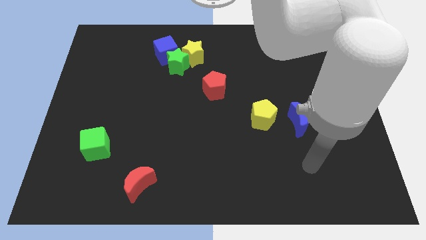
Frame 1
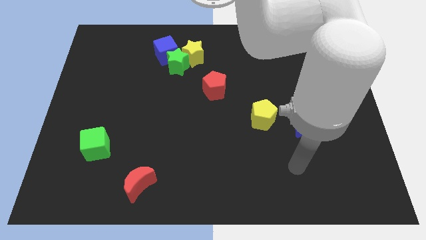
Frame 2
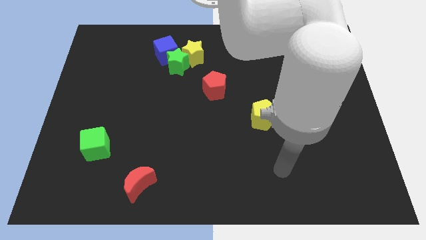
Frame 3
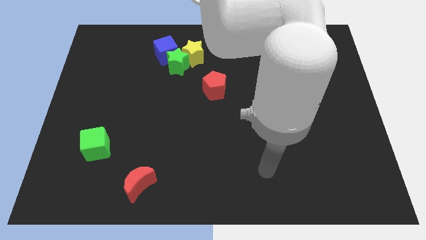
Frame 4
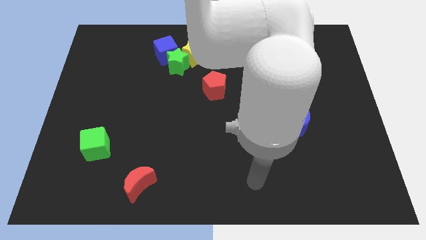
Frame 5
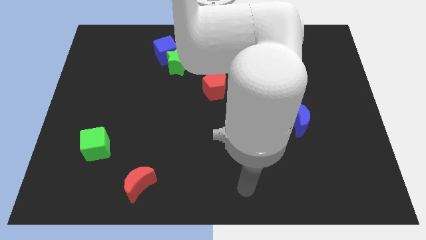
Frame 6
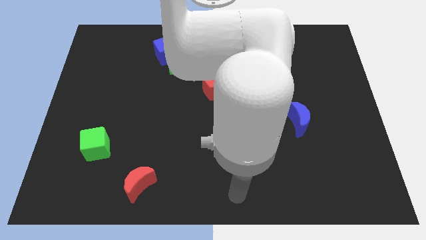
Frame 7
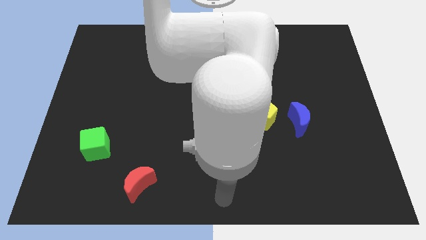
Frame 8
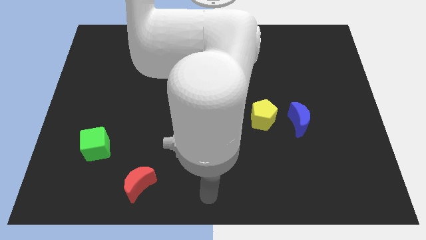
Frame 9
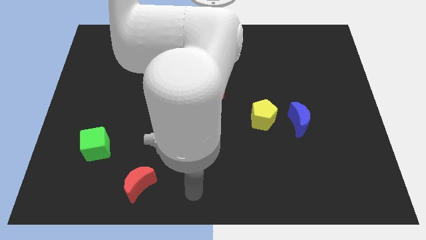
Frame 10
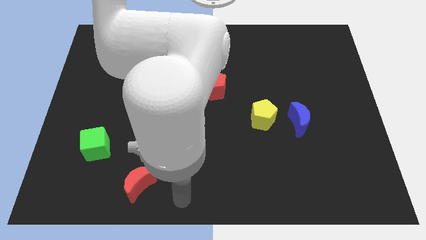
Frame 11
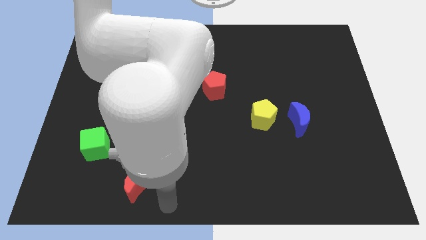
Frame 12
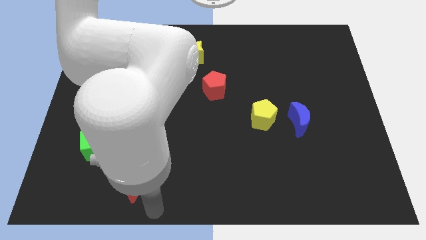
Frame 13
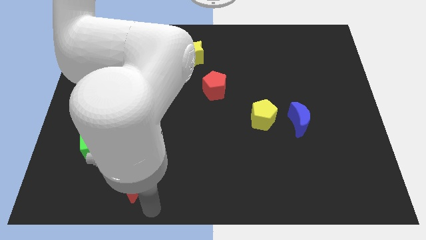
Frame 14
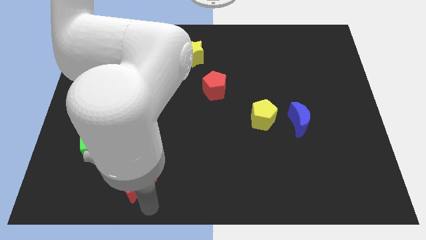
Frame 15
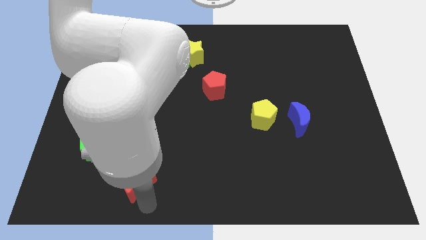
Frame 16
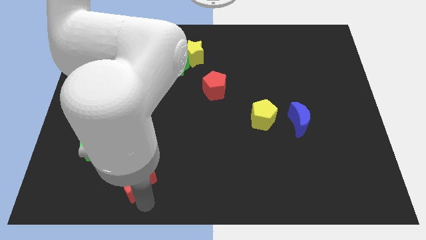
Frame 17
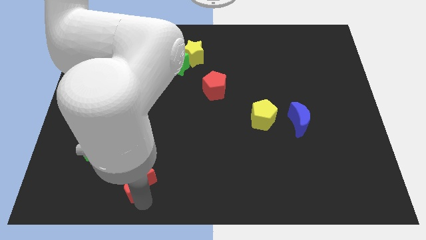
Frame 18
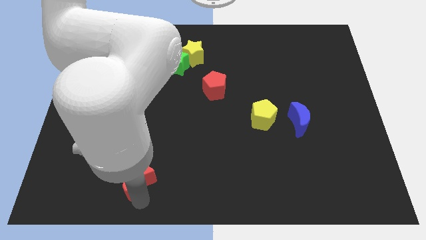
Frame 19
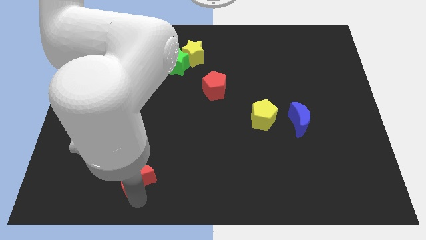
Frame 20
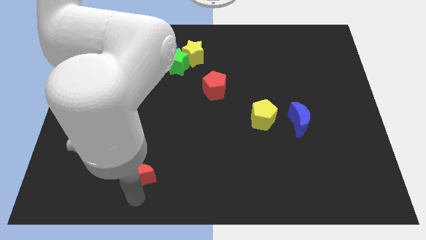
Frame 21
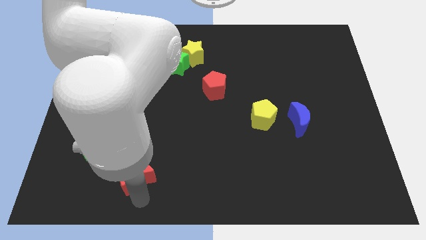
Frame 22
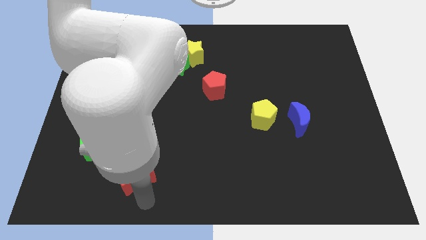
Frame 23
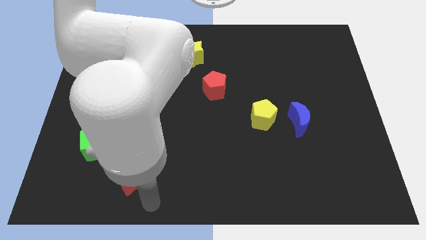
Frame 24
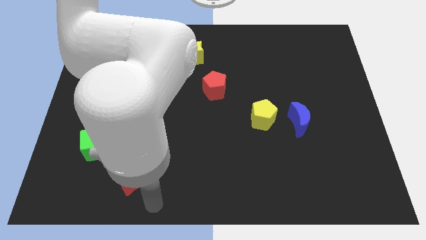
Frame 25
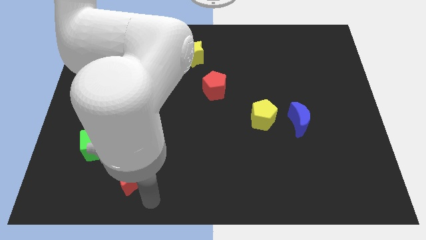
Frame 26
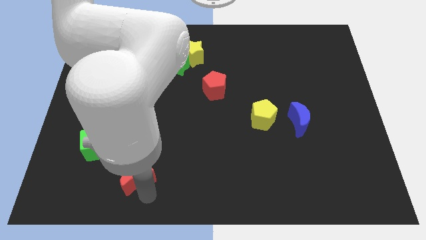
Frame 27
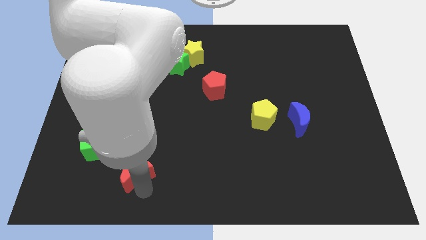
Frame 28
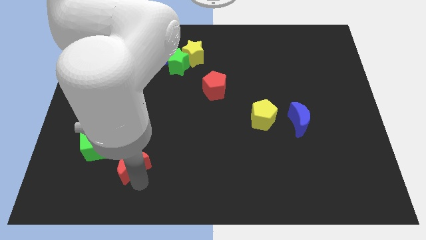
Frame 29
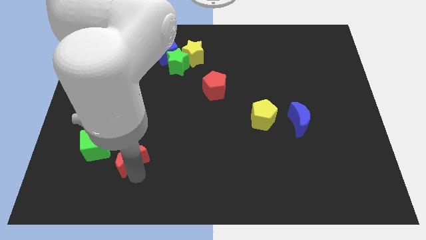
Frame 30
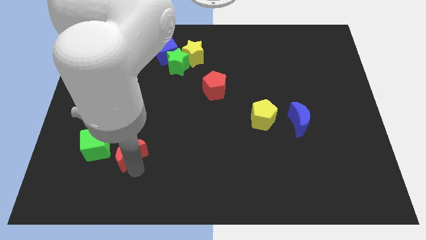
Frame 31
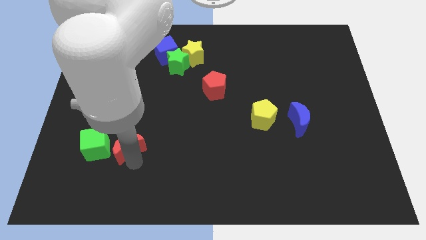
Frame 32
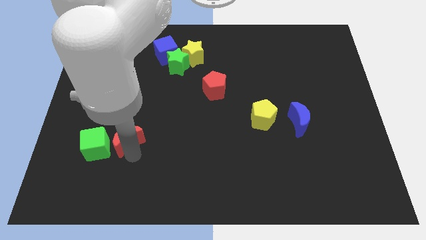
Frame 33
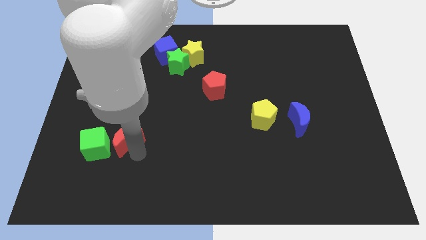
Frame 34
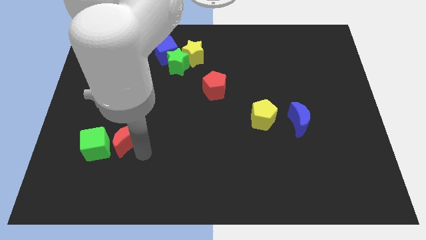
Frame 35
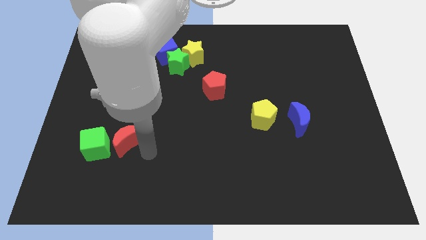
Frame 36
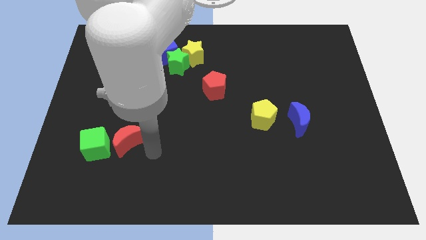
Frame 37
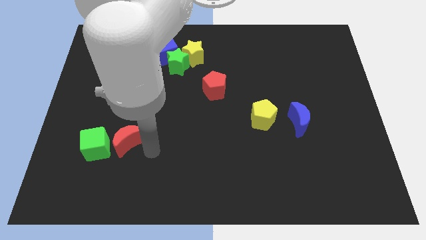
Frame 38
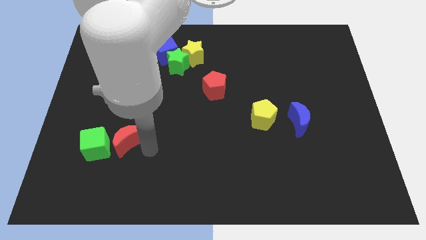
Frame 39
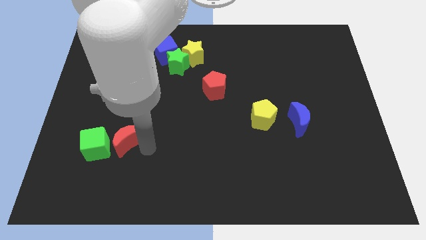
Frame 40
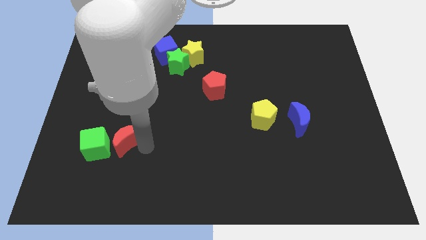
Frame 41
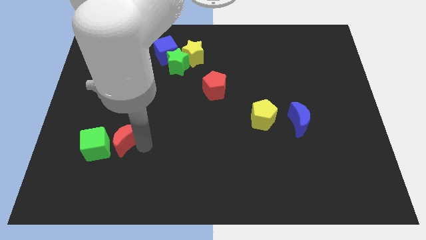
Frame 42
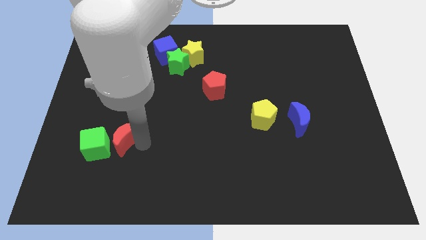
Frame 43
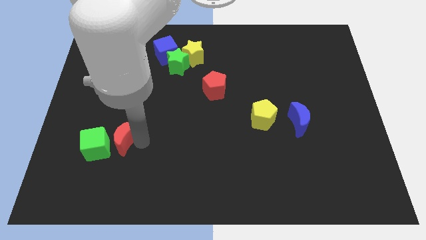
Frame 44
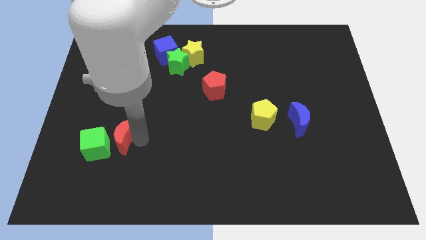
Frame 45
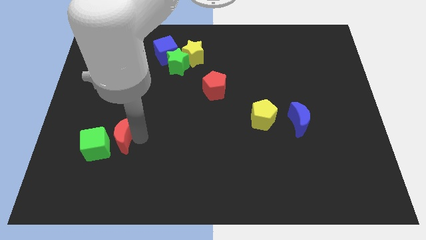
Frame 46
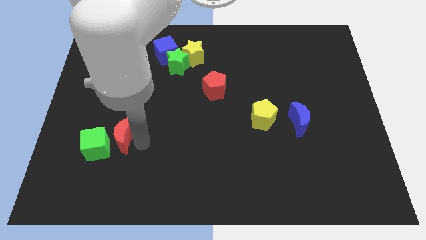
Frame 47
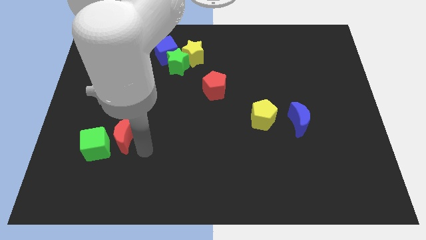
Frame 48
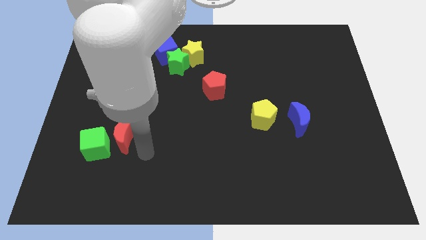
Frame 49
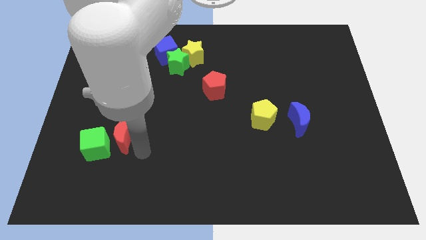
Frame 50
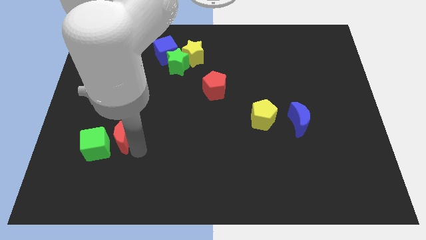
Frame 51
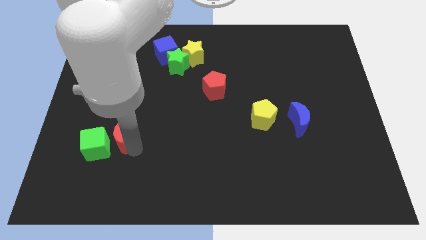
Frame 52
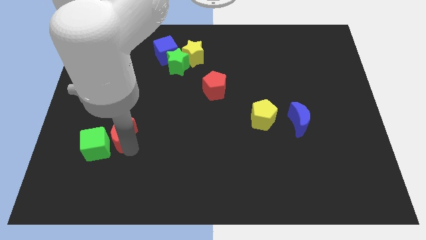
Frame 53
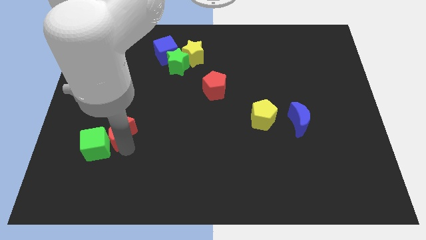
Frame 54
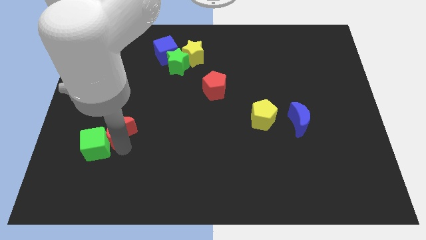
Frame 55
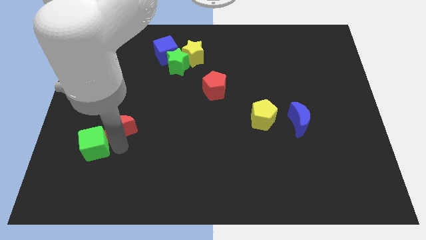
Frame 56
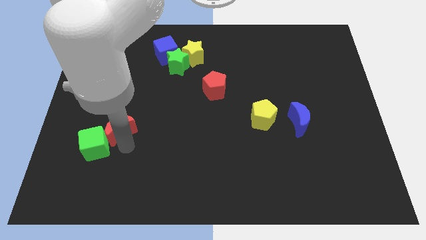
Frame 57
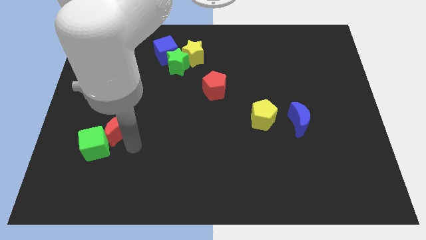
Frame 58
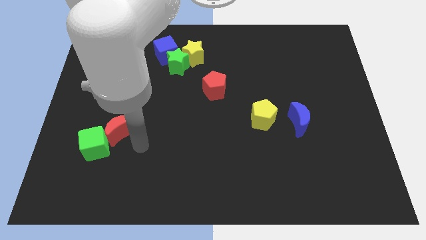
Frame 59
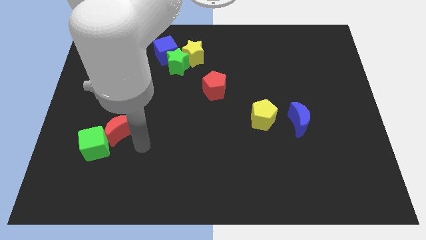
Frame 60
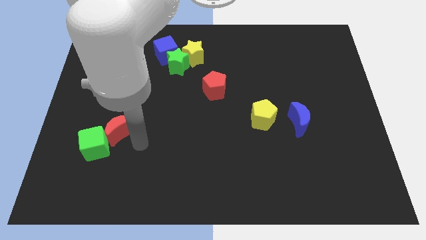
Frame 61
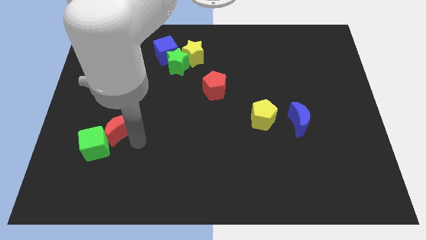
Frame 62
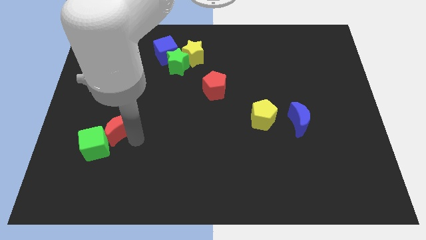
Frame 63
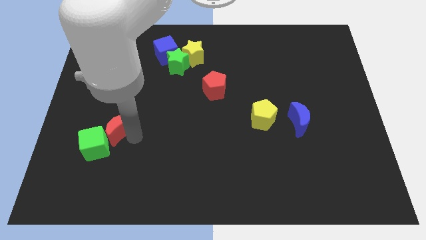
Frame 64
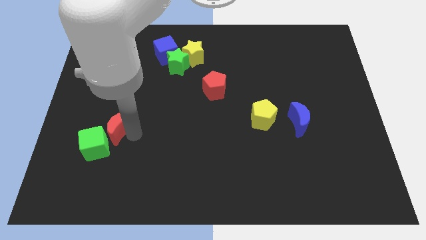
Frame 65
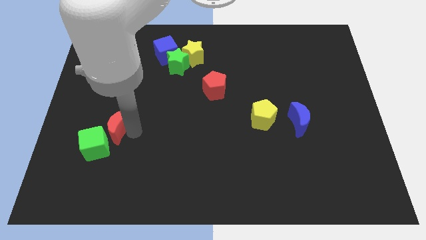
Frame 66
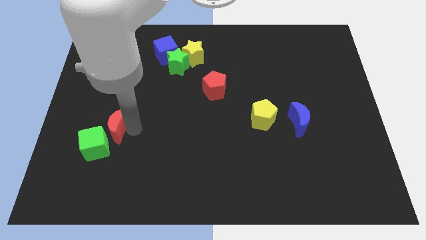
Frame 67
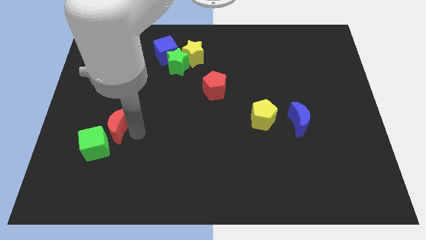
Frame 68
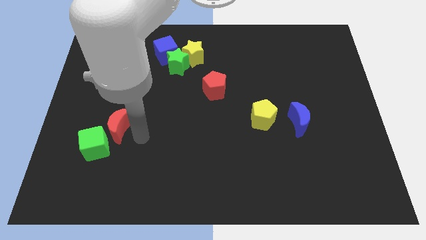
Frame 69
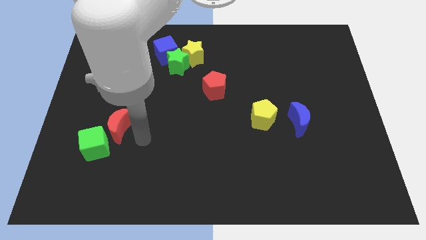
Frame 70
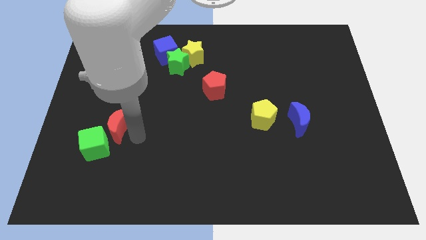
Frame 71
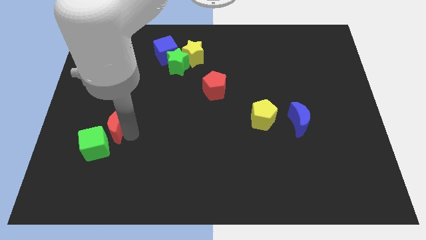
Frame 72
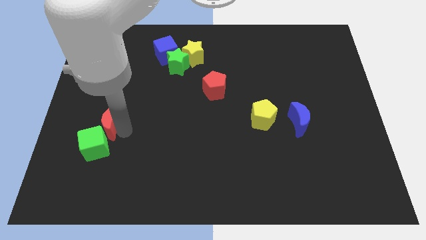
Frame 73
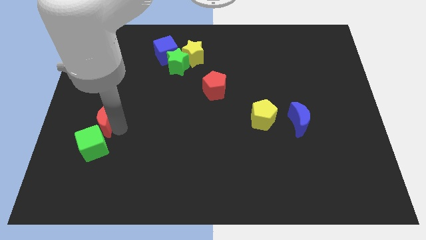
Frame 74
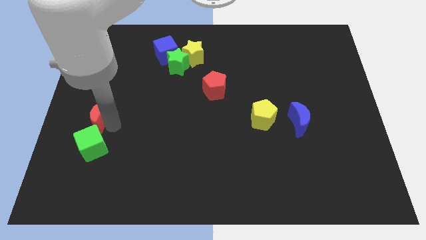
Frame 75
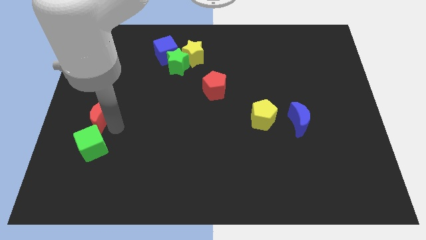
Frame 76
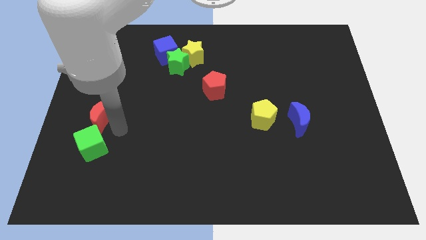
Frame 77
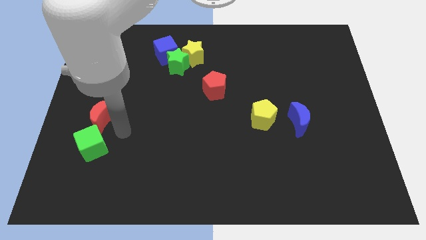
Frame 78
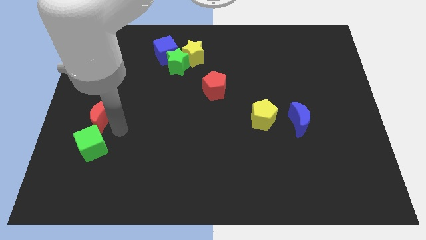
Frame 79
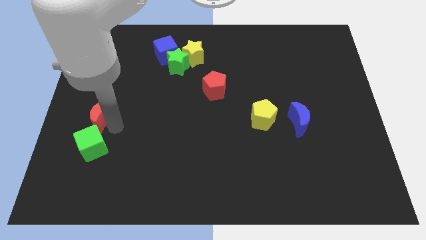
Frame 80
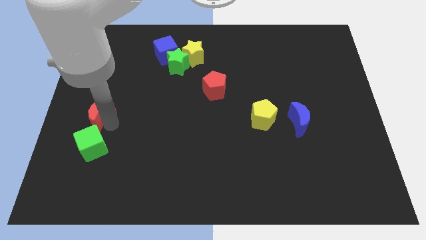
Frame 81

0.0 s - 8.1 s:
slide the red moon to the left side of the board
